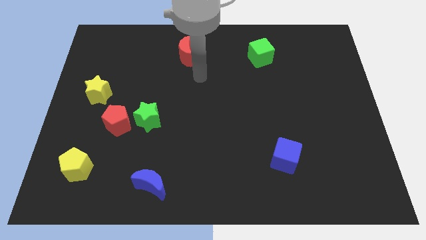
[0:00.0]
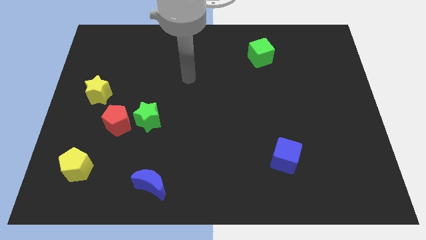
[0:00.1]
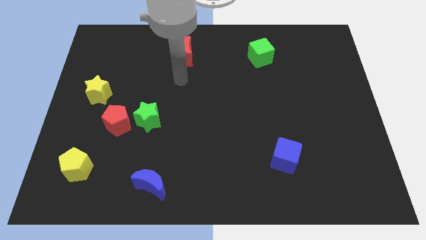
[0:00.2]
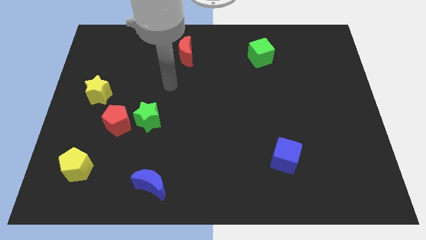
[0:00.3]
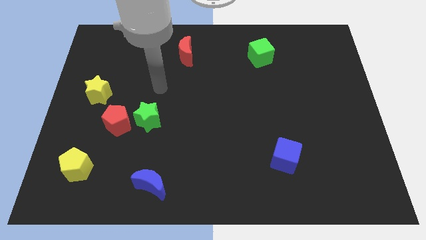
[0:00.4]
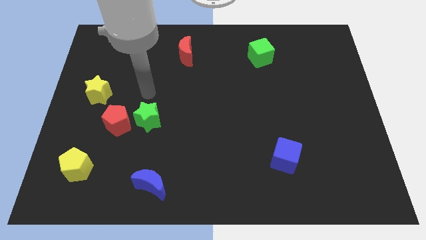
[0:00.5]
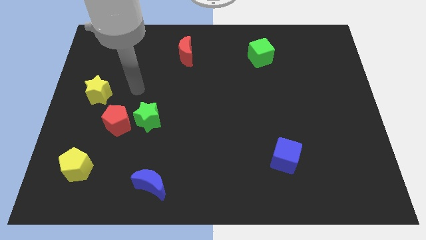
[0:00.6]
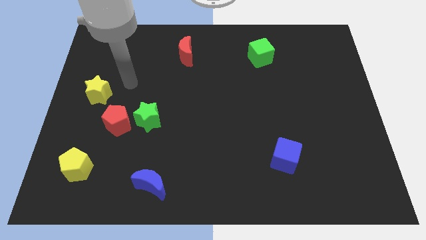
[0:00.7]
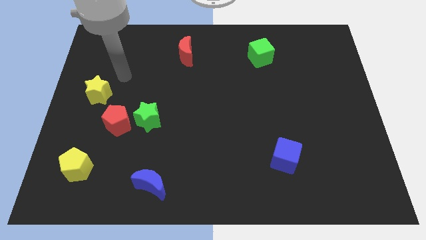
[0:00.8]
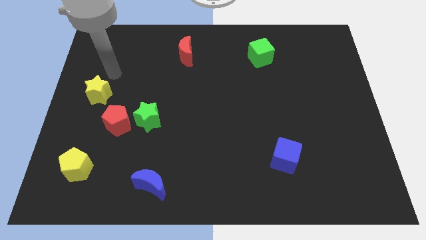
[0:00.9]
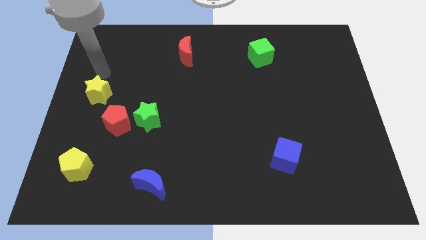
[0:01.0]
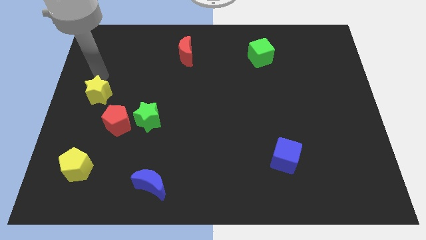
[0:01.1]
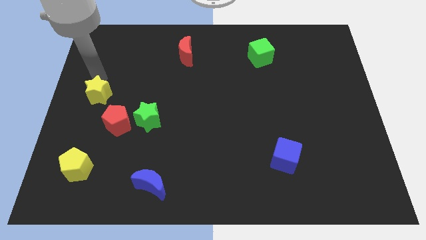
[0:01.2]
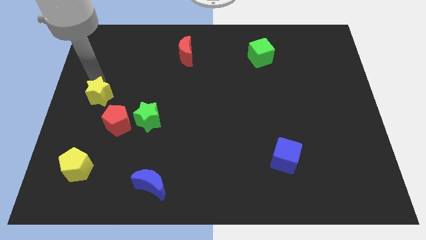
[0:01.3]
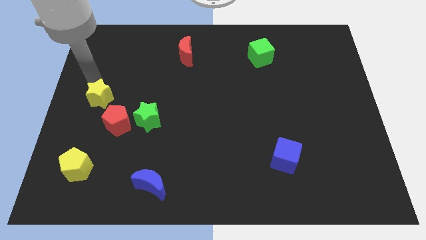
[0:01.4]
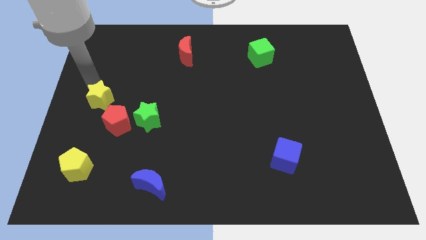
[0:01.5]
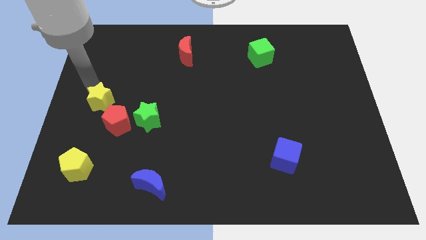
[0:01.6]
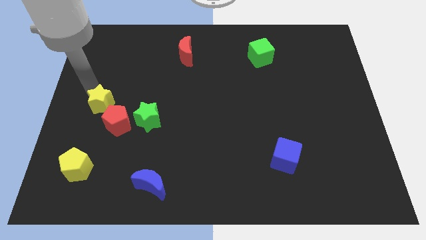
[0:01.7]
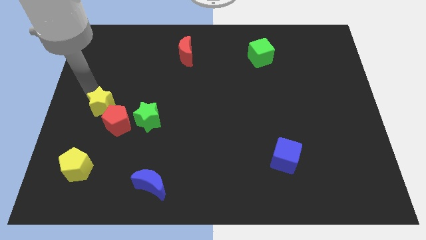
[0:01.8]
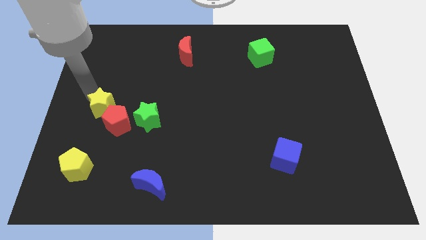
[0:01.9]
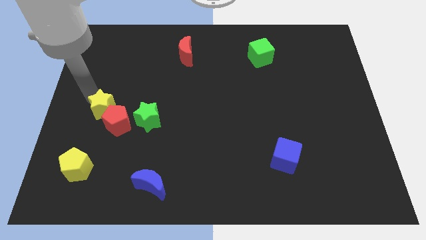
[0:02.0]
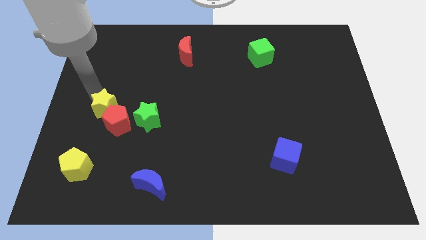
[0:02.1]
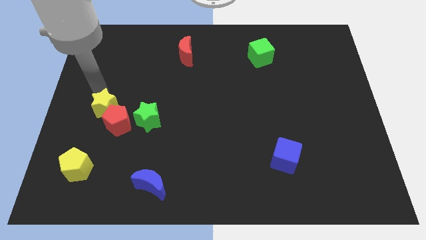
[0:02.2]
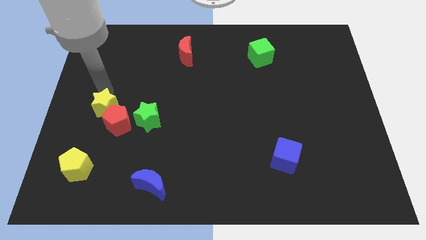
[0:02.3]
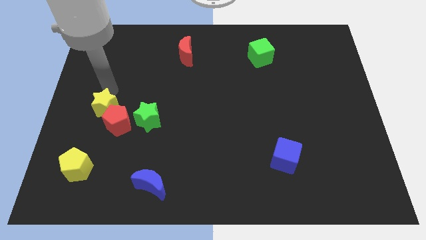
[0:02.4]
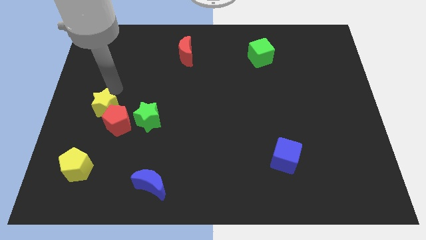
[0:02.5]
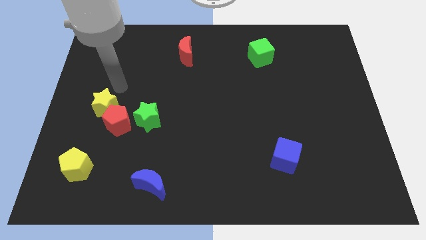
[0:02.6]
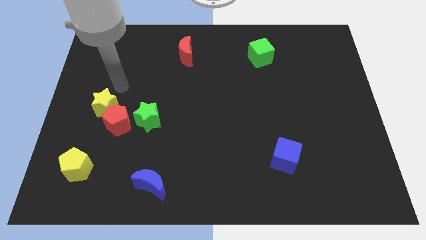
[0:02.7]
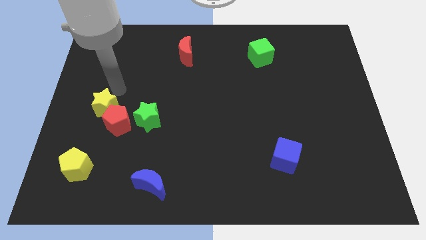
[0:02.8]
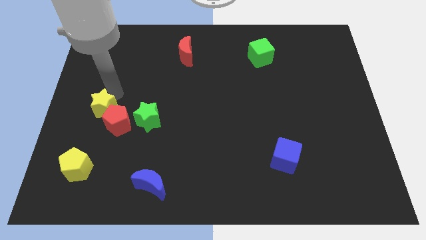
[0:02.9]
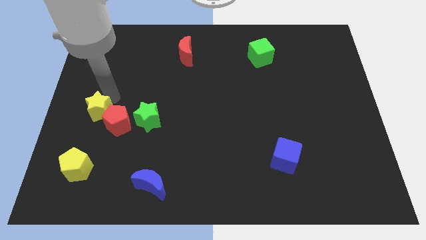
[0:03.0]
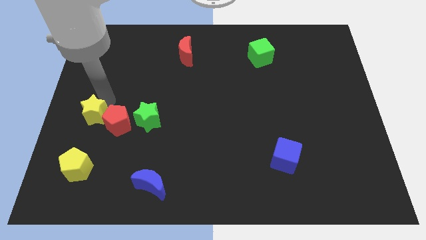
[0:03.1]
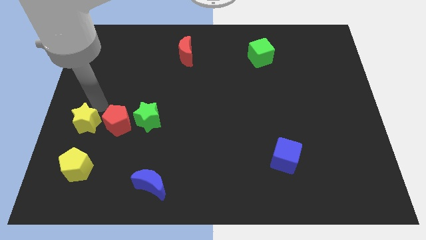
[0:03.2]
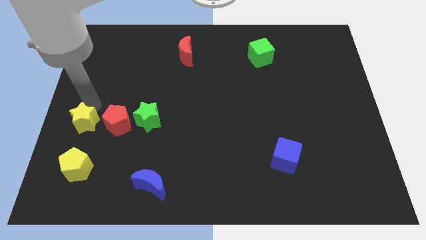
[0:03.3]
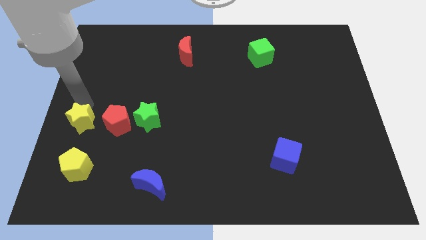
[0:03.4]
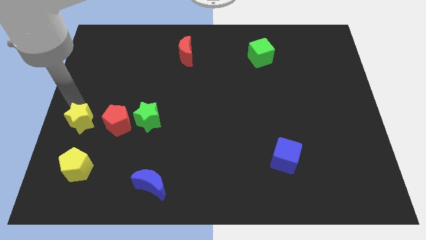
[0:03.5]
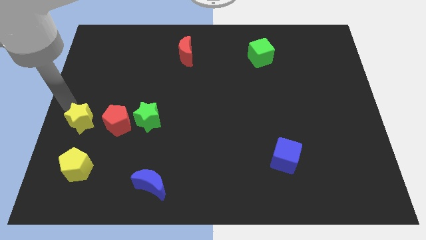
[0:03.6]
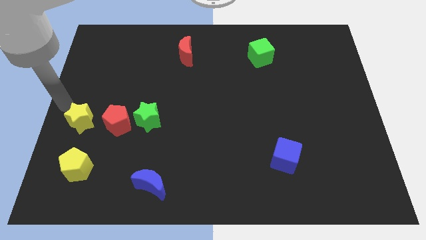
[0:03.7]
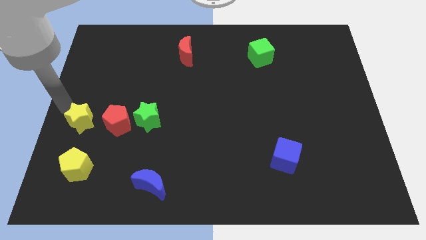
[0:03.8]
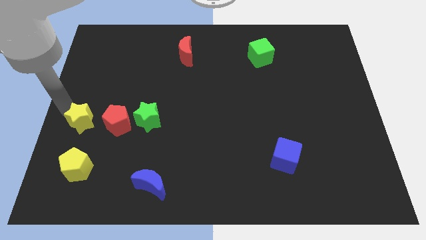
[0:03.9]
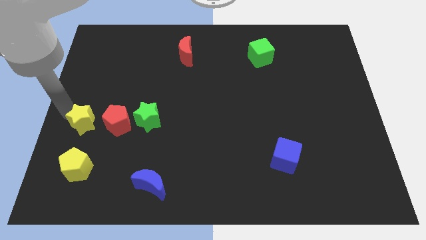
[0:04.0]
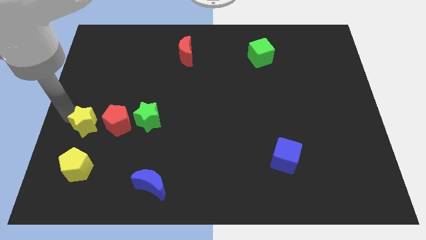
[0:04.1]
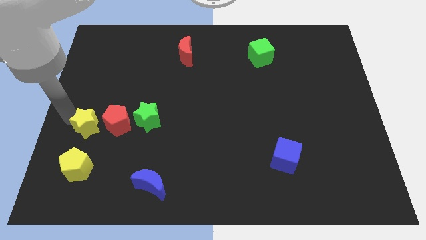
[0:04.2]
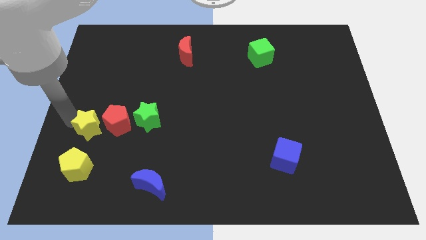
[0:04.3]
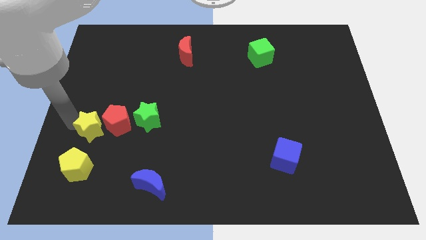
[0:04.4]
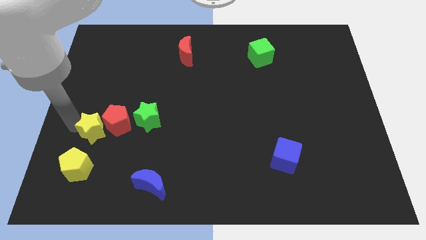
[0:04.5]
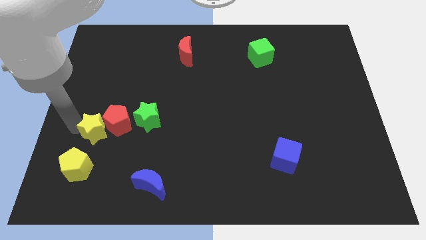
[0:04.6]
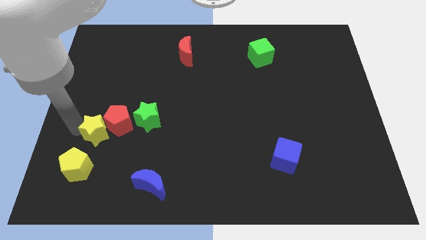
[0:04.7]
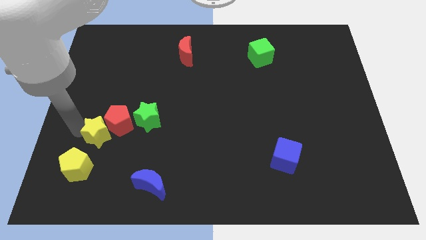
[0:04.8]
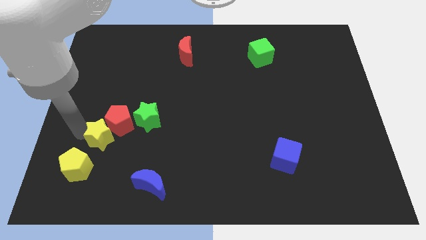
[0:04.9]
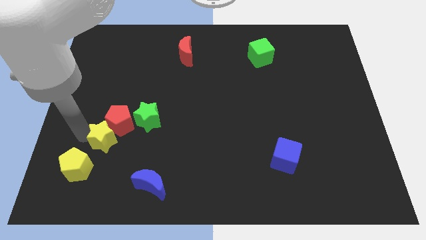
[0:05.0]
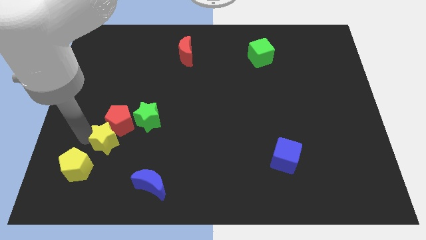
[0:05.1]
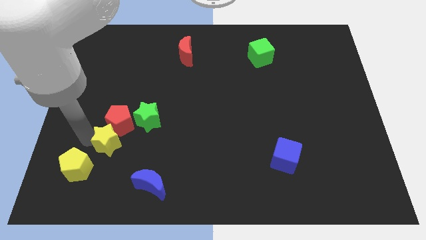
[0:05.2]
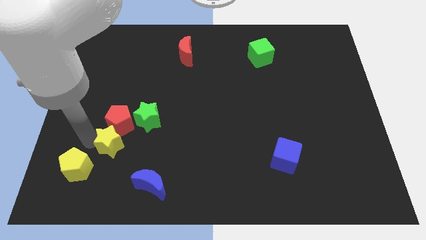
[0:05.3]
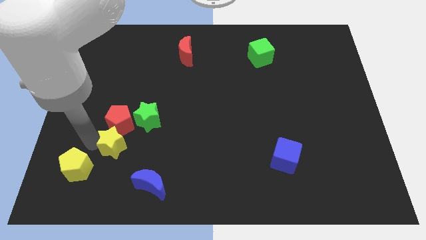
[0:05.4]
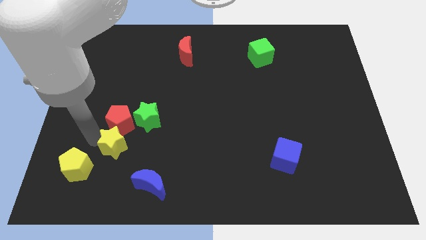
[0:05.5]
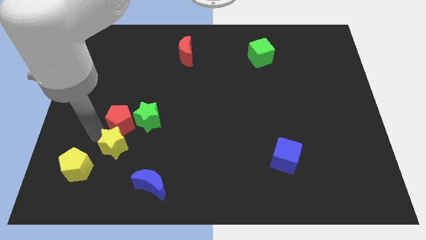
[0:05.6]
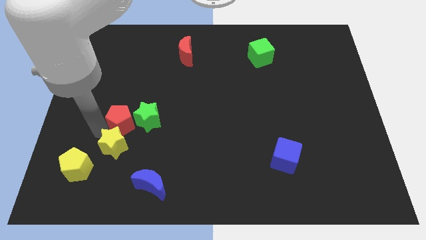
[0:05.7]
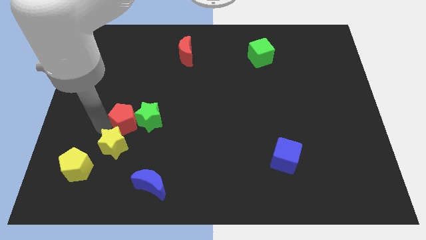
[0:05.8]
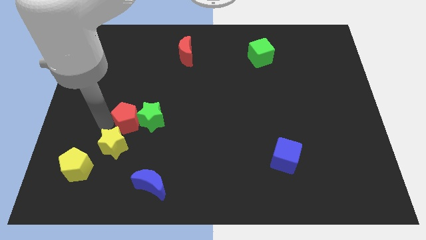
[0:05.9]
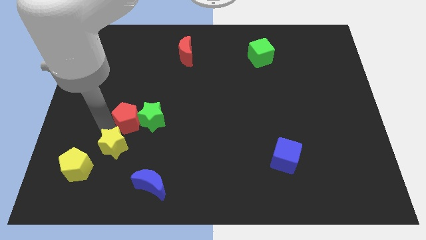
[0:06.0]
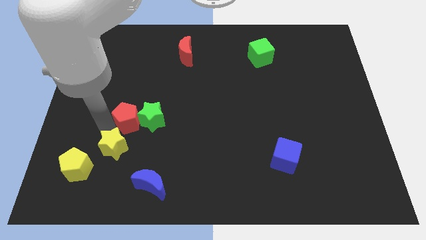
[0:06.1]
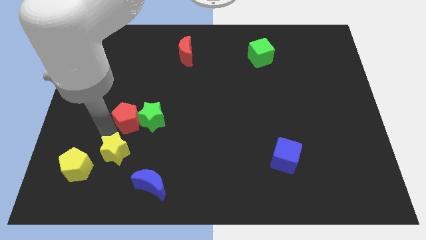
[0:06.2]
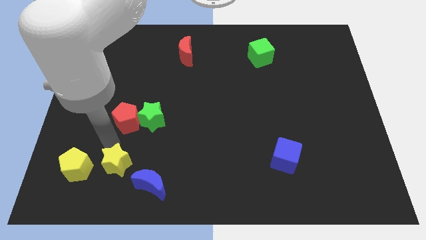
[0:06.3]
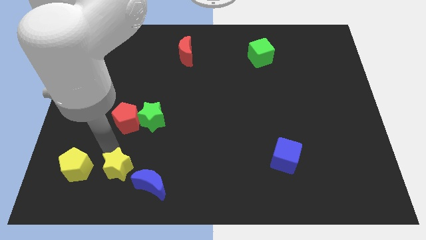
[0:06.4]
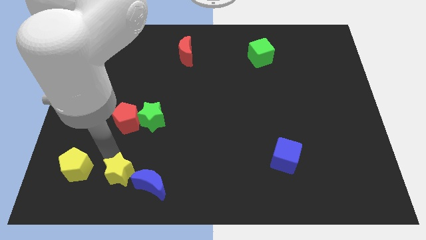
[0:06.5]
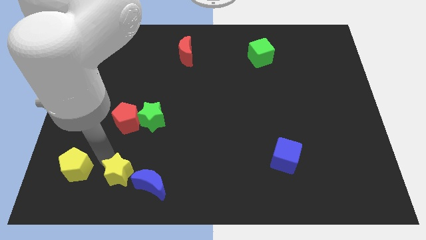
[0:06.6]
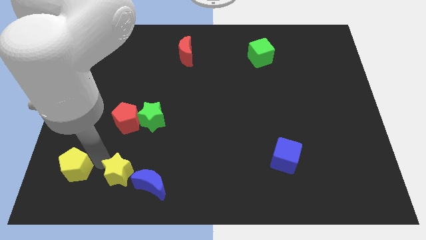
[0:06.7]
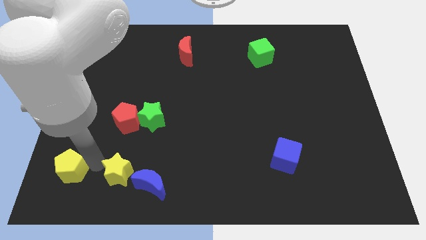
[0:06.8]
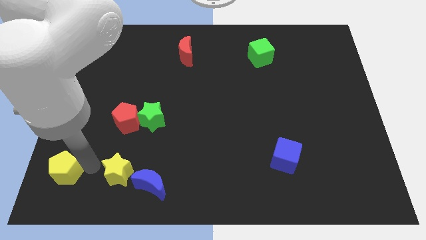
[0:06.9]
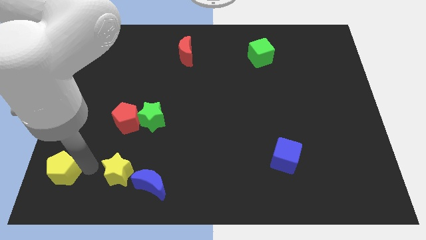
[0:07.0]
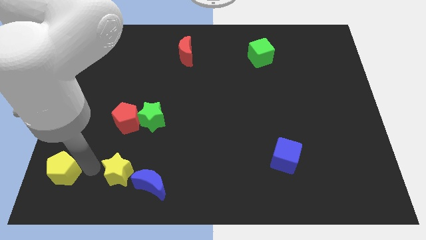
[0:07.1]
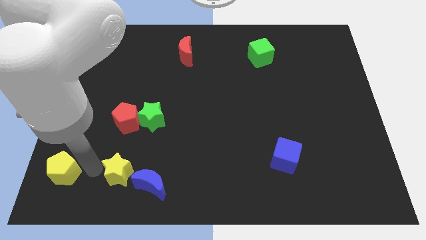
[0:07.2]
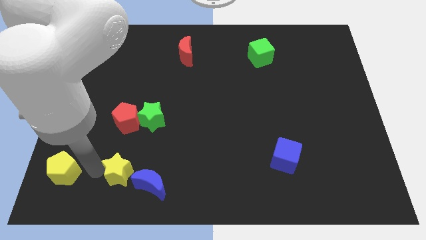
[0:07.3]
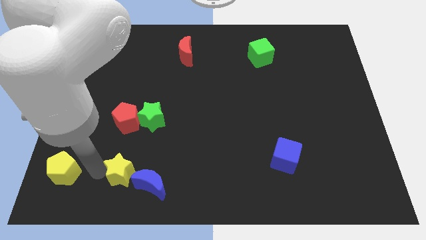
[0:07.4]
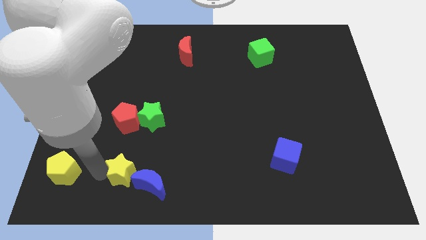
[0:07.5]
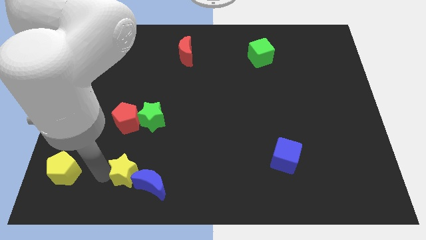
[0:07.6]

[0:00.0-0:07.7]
push the yellow star close to the blue moon

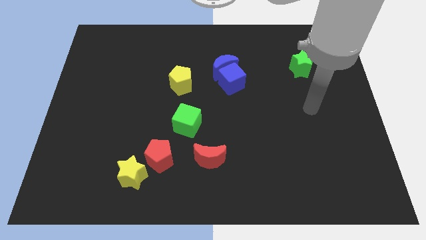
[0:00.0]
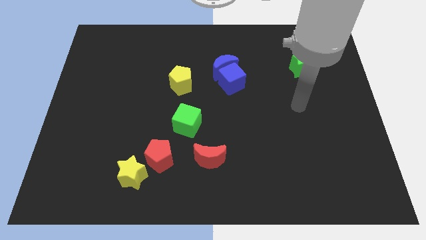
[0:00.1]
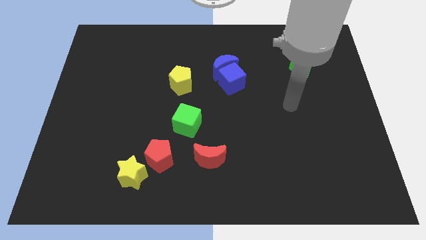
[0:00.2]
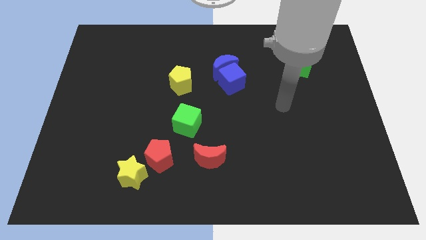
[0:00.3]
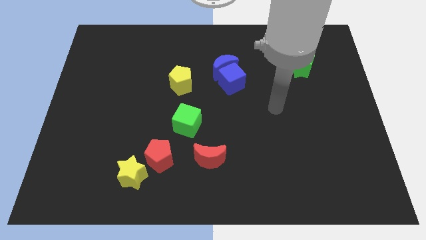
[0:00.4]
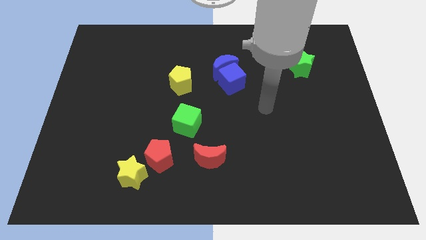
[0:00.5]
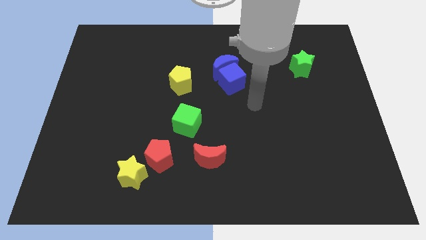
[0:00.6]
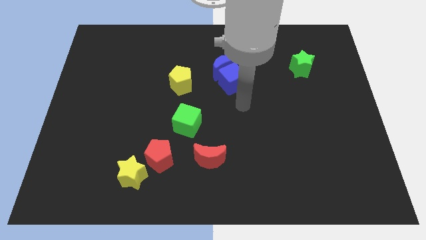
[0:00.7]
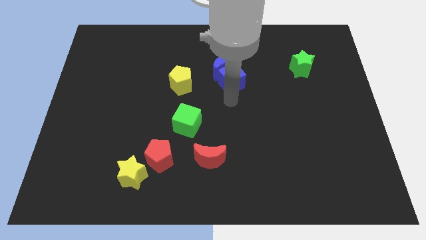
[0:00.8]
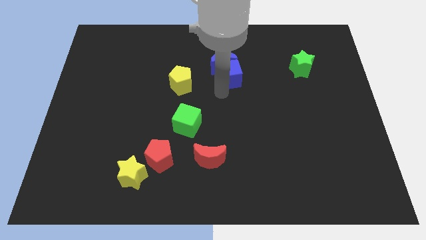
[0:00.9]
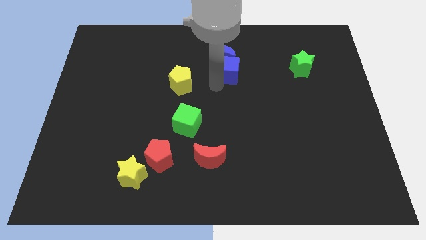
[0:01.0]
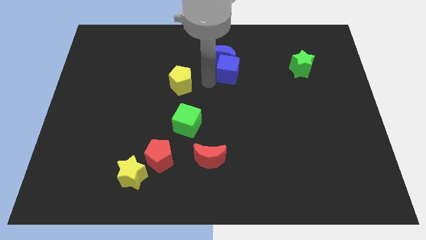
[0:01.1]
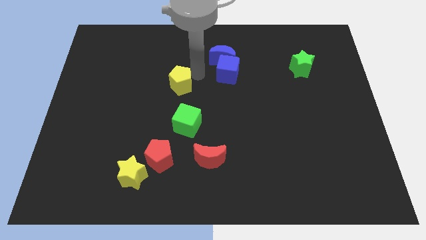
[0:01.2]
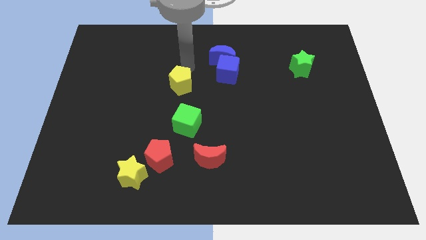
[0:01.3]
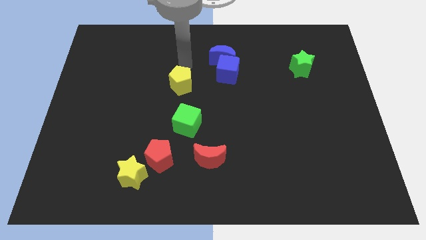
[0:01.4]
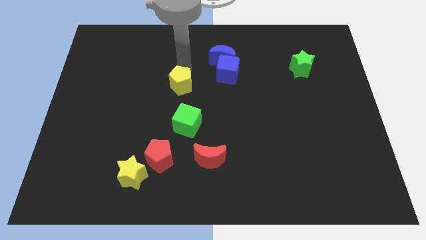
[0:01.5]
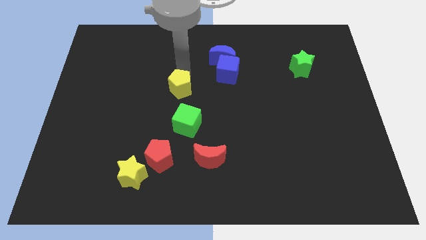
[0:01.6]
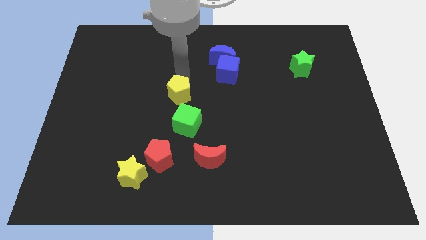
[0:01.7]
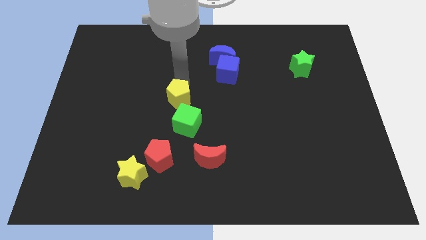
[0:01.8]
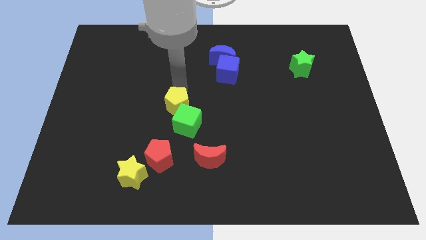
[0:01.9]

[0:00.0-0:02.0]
push the yellow pentagon towards the green cube
